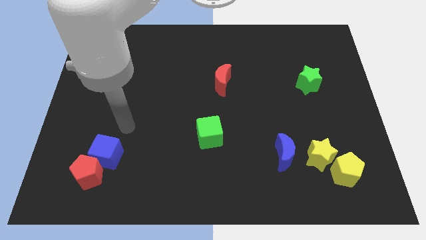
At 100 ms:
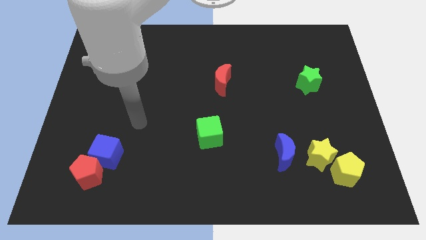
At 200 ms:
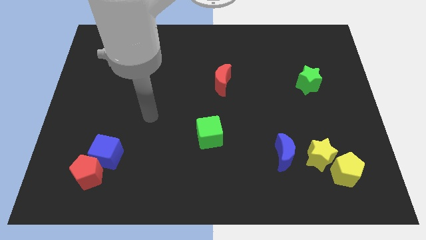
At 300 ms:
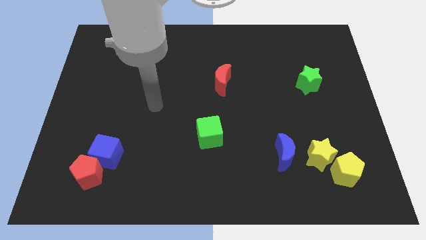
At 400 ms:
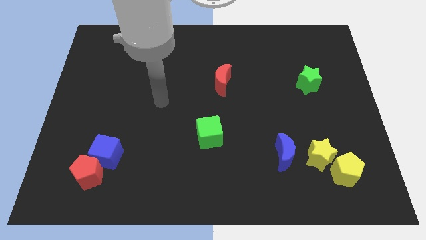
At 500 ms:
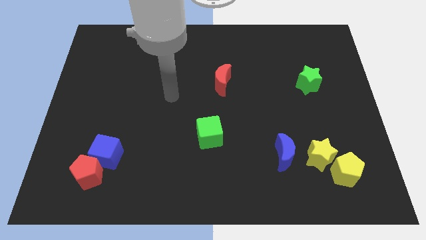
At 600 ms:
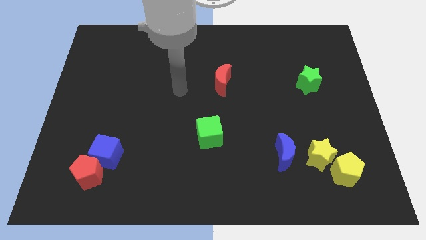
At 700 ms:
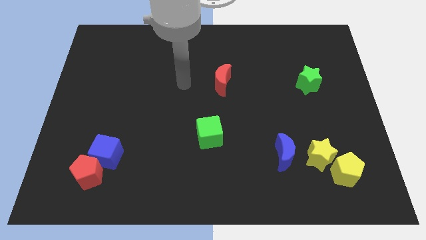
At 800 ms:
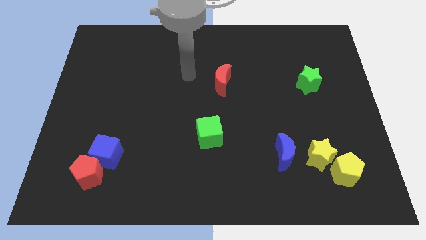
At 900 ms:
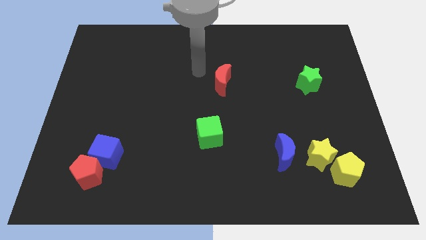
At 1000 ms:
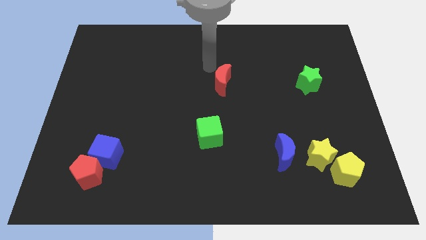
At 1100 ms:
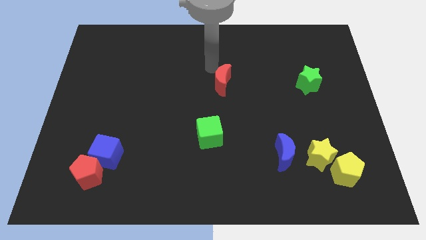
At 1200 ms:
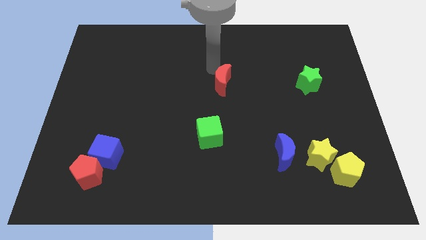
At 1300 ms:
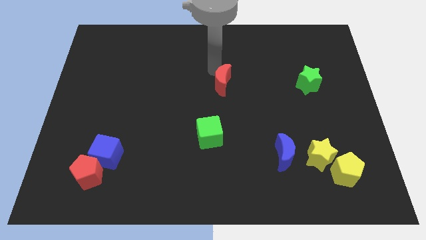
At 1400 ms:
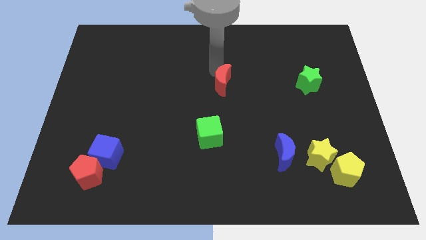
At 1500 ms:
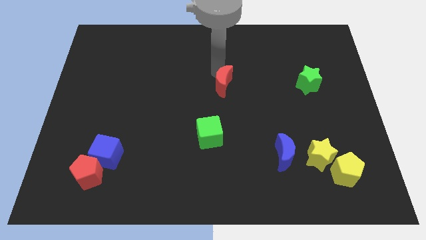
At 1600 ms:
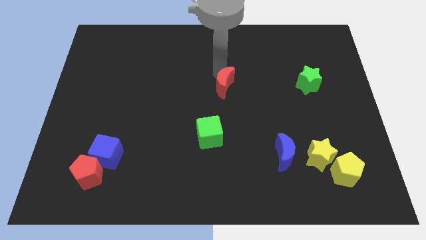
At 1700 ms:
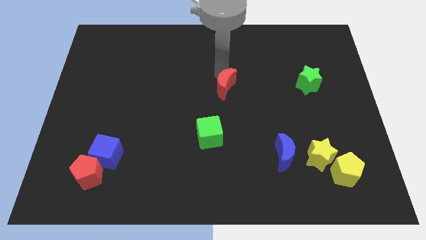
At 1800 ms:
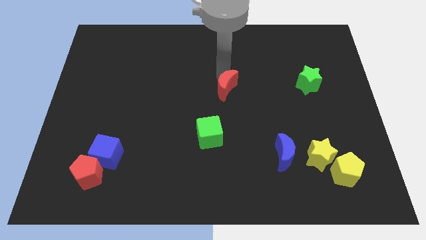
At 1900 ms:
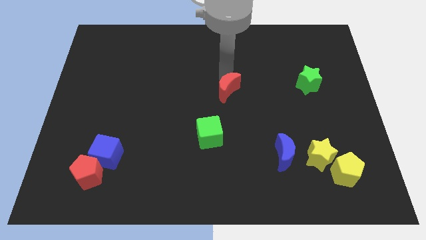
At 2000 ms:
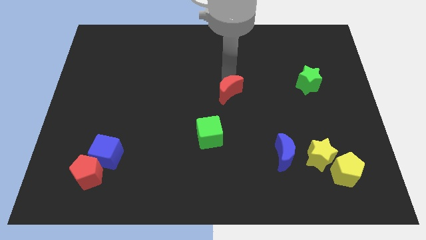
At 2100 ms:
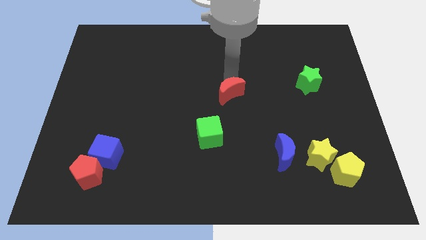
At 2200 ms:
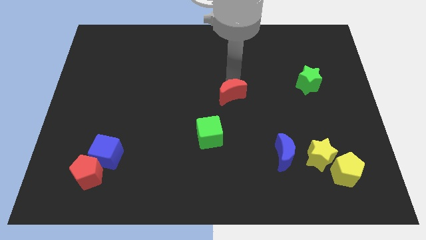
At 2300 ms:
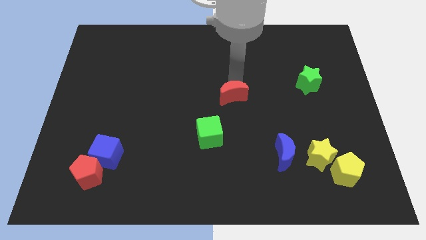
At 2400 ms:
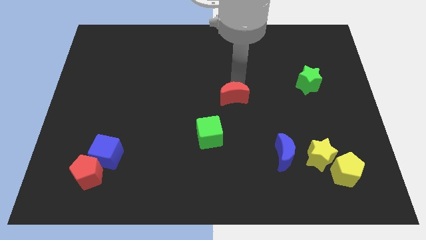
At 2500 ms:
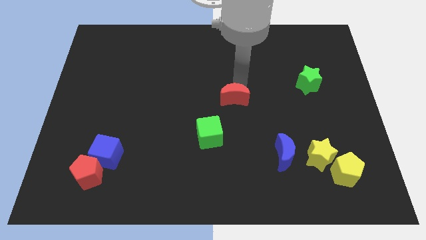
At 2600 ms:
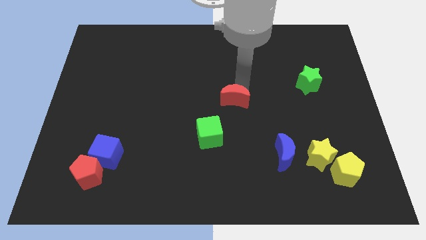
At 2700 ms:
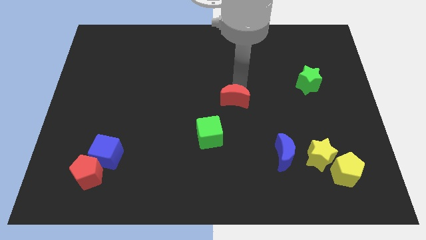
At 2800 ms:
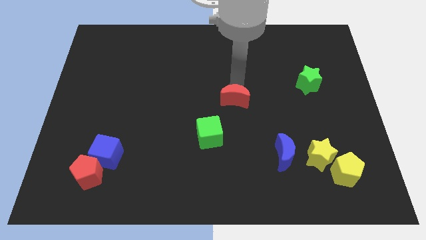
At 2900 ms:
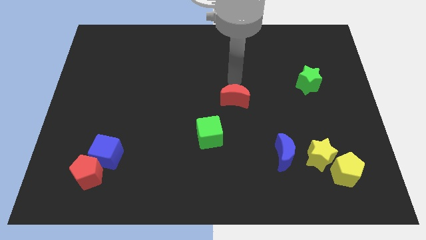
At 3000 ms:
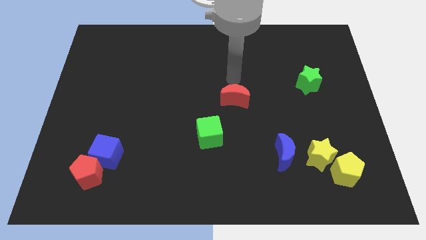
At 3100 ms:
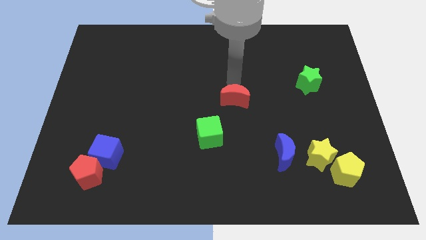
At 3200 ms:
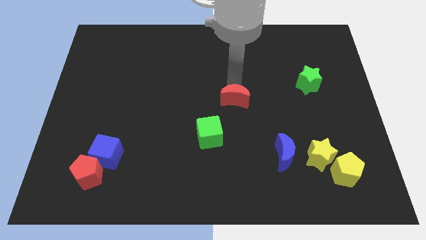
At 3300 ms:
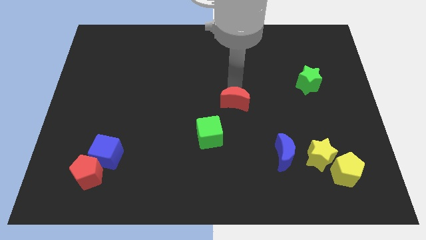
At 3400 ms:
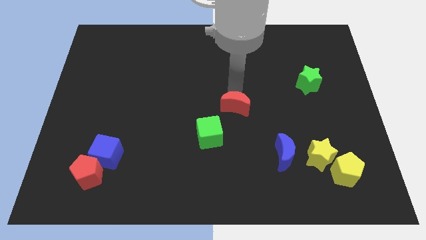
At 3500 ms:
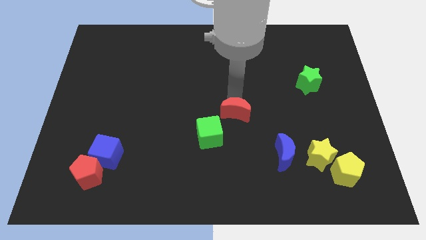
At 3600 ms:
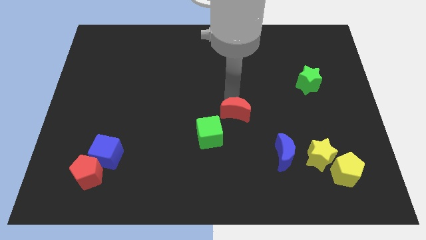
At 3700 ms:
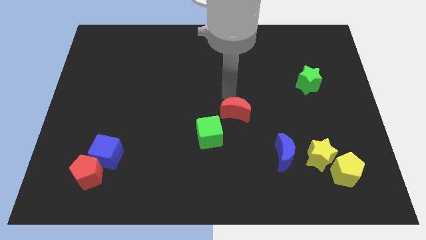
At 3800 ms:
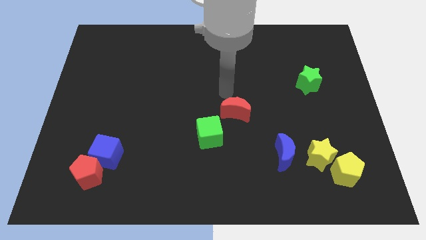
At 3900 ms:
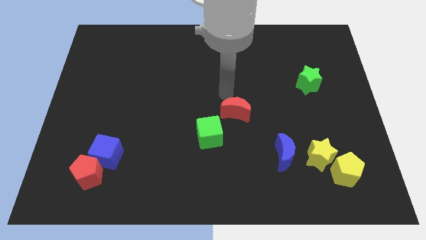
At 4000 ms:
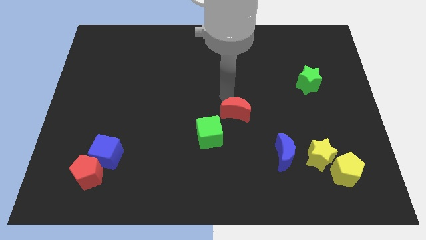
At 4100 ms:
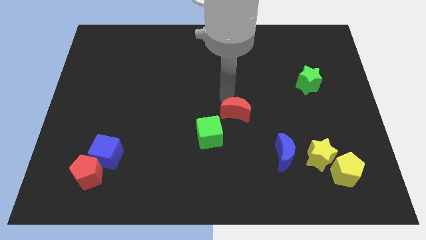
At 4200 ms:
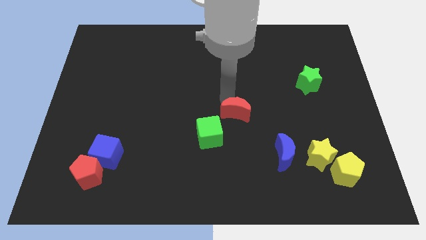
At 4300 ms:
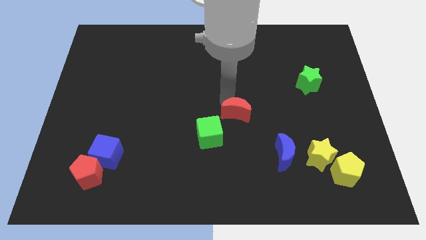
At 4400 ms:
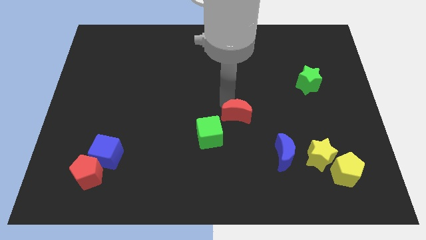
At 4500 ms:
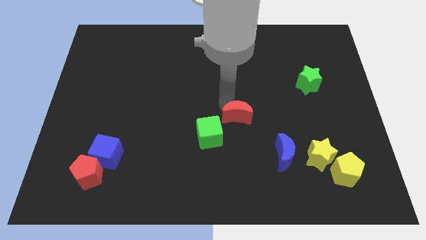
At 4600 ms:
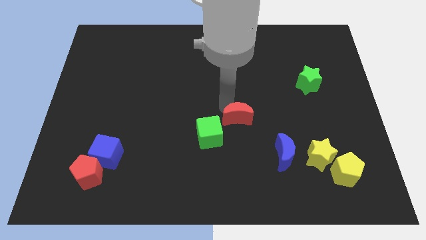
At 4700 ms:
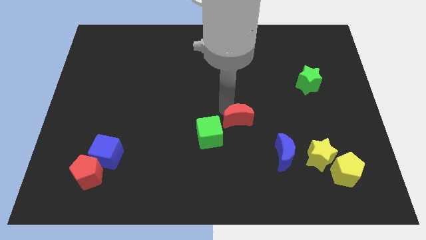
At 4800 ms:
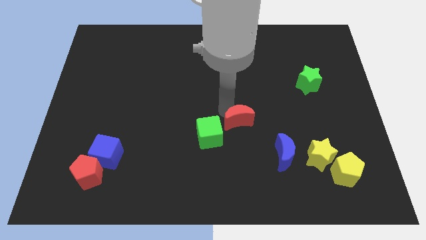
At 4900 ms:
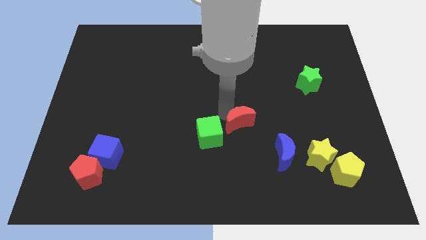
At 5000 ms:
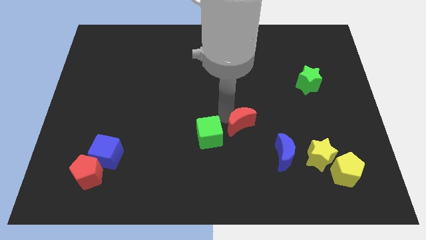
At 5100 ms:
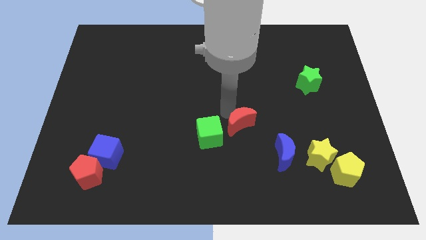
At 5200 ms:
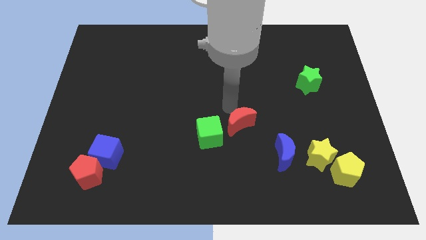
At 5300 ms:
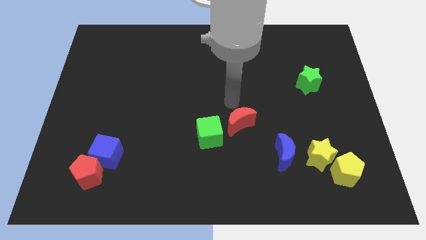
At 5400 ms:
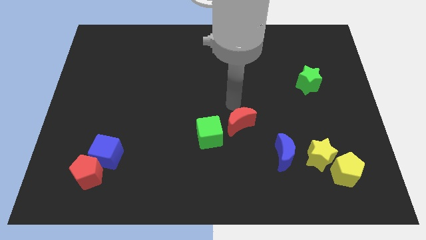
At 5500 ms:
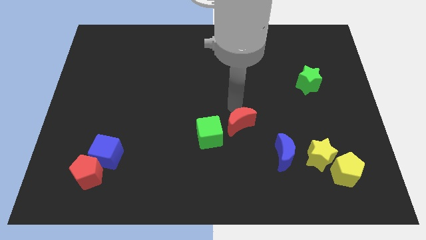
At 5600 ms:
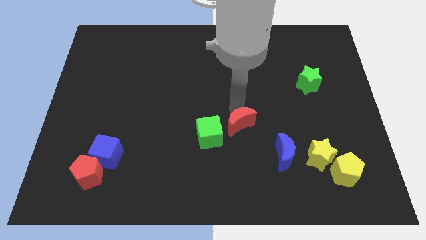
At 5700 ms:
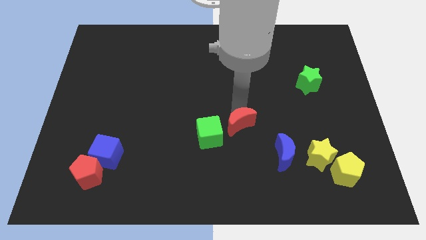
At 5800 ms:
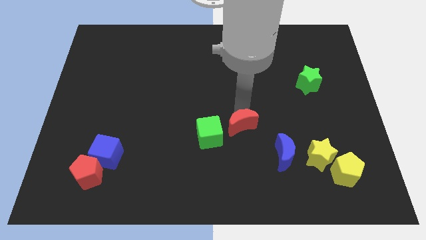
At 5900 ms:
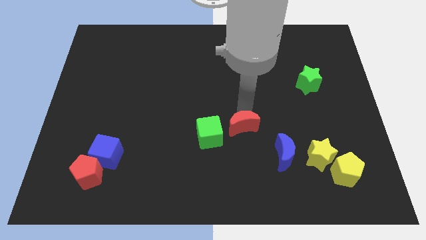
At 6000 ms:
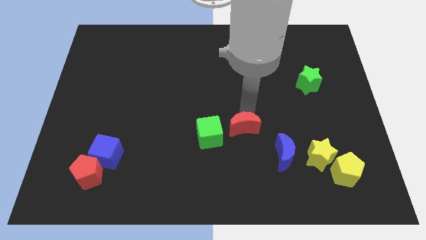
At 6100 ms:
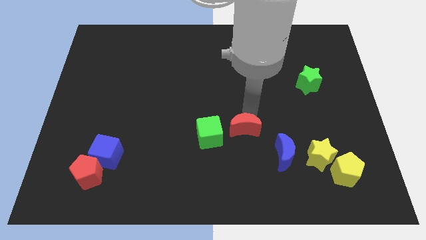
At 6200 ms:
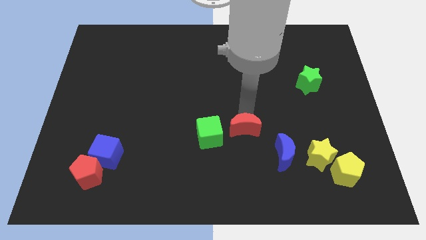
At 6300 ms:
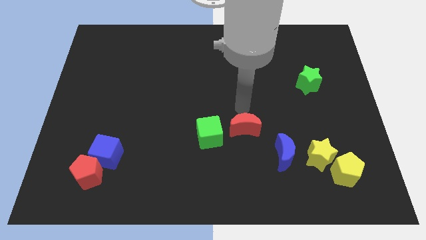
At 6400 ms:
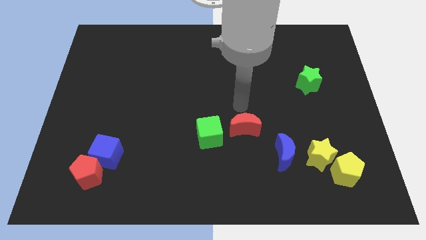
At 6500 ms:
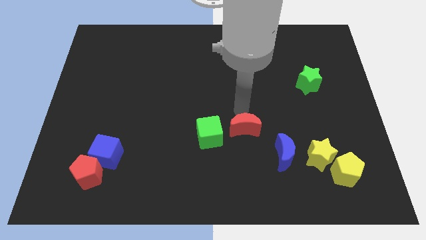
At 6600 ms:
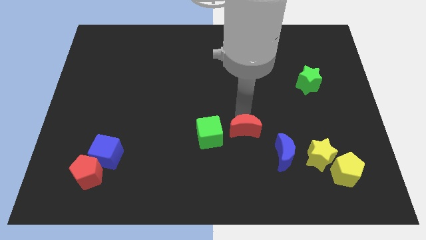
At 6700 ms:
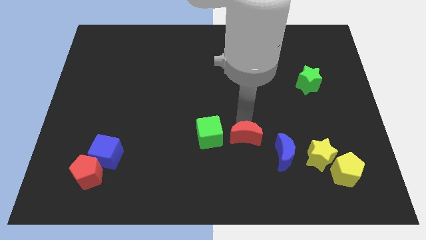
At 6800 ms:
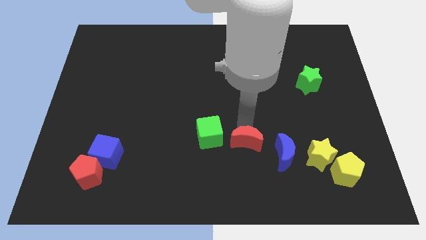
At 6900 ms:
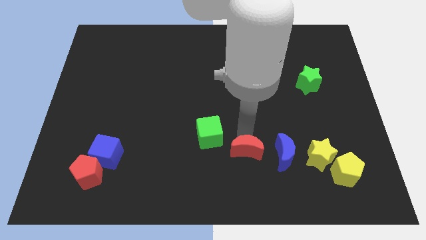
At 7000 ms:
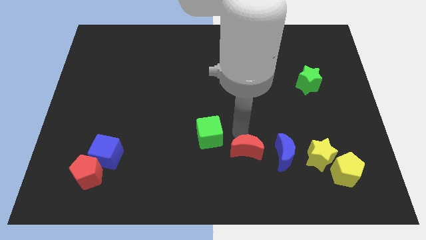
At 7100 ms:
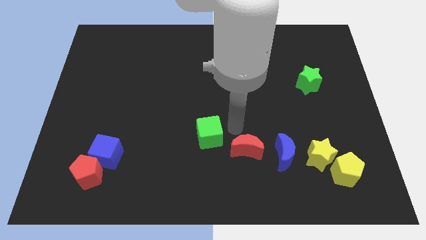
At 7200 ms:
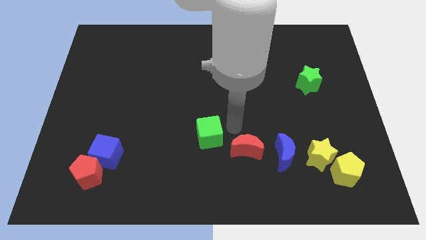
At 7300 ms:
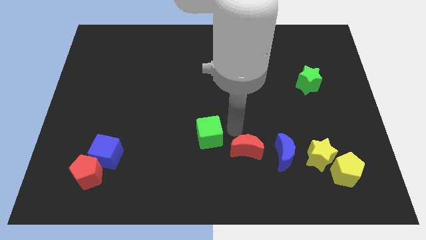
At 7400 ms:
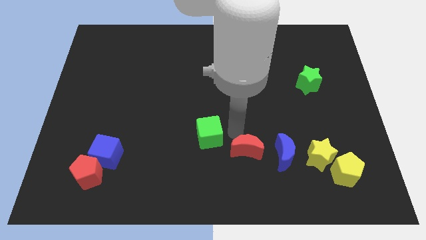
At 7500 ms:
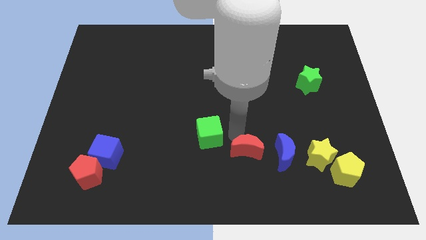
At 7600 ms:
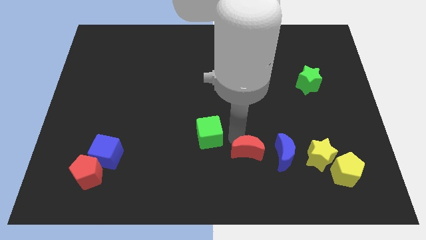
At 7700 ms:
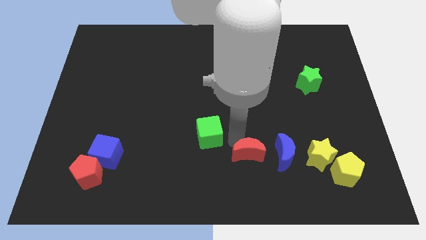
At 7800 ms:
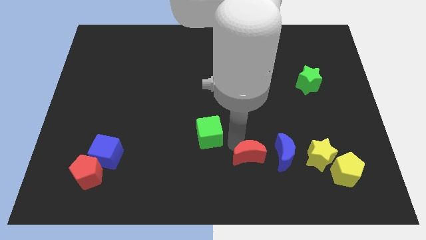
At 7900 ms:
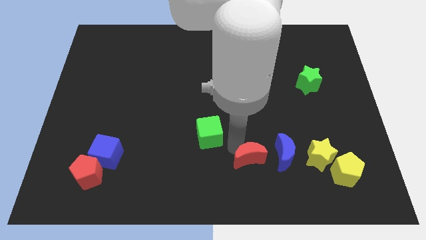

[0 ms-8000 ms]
move the red moon to the bottom left of the blue moon

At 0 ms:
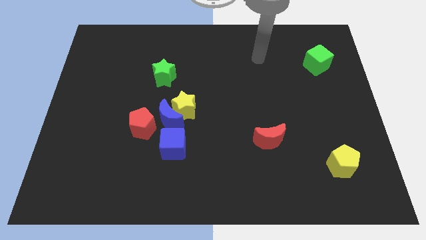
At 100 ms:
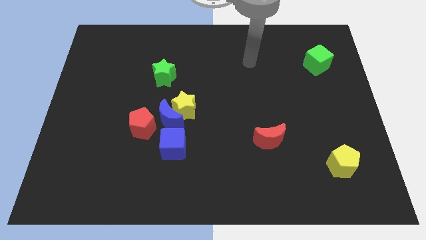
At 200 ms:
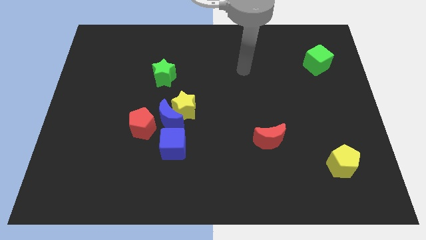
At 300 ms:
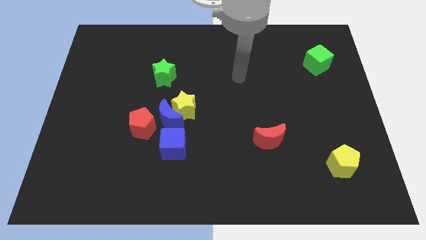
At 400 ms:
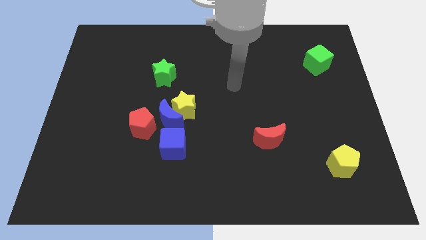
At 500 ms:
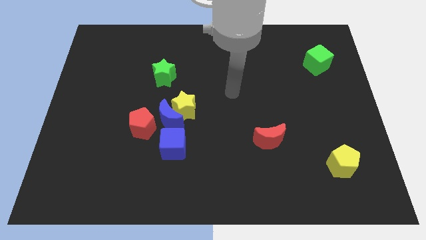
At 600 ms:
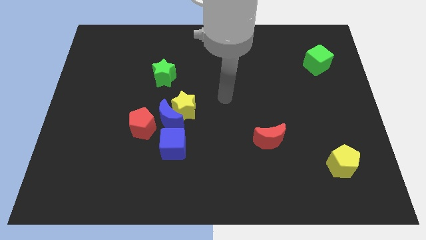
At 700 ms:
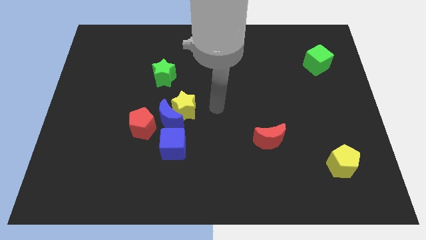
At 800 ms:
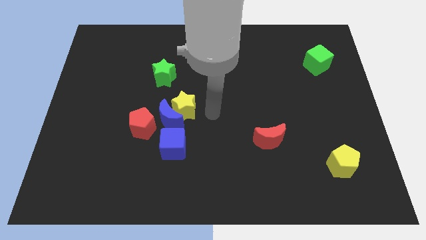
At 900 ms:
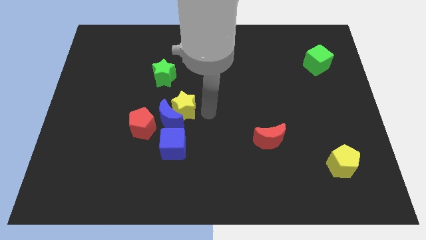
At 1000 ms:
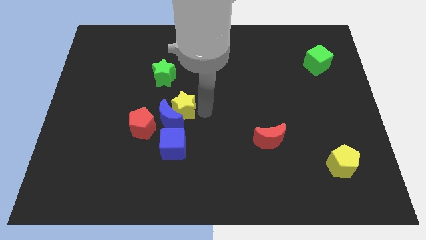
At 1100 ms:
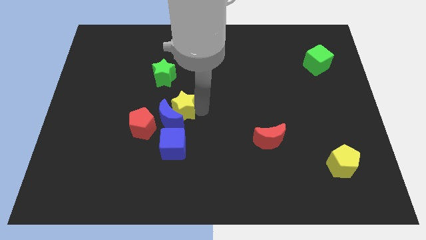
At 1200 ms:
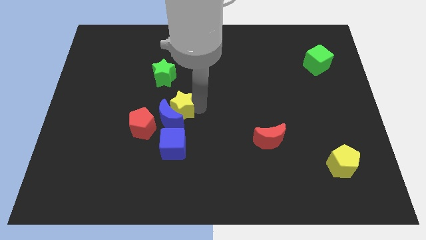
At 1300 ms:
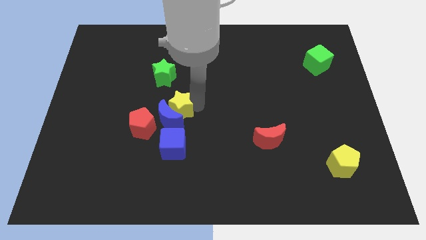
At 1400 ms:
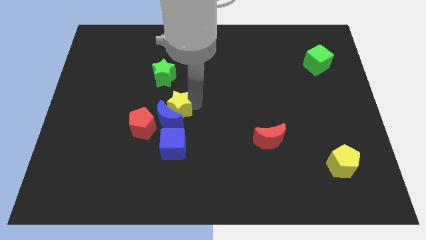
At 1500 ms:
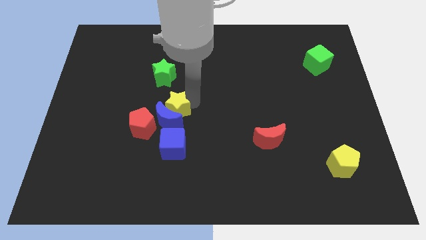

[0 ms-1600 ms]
move the yellow star to the top left side of the blue moon
